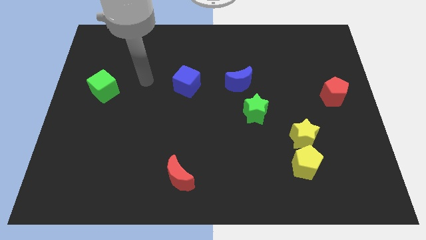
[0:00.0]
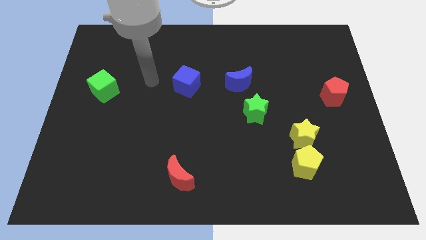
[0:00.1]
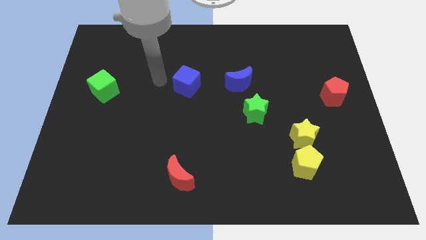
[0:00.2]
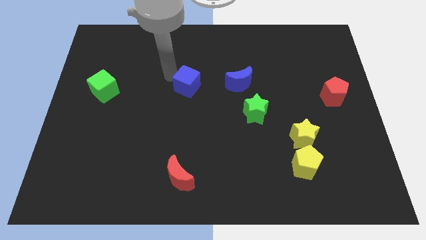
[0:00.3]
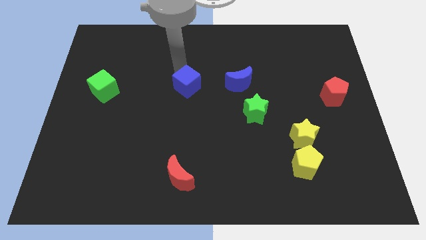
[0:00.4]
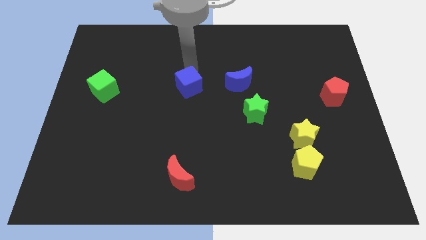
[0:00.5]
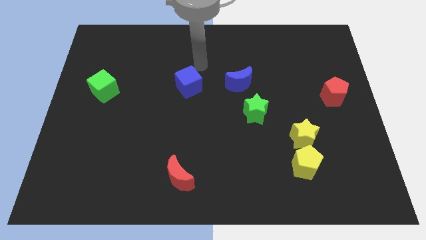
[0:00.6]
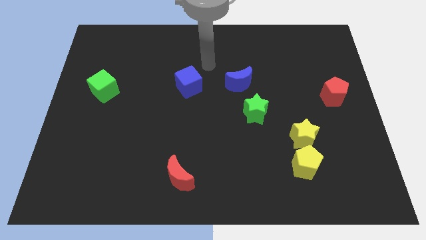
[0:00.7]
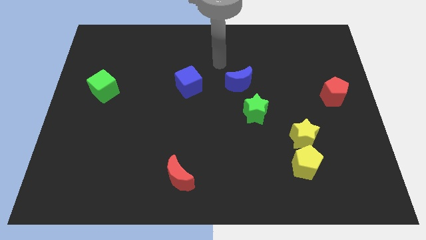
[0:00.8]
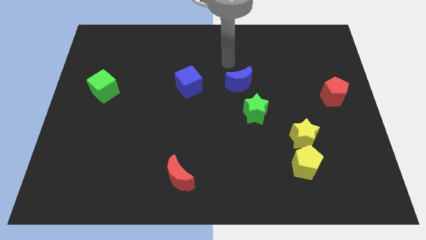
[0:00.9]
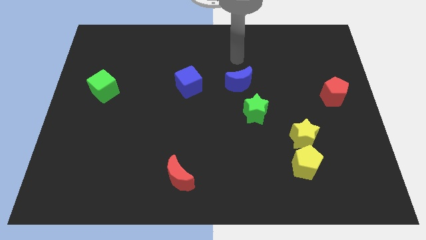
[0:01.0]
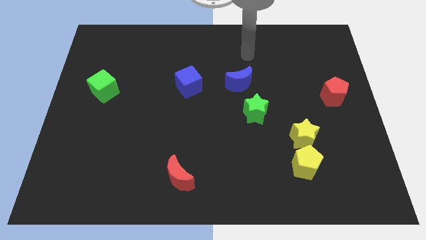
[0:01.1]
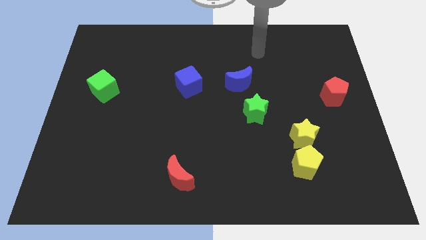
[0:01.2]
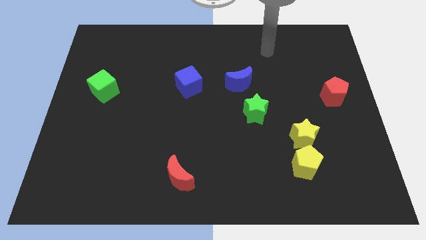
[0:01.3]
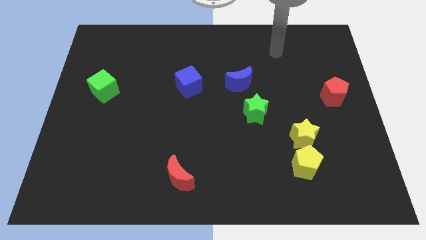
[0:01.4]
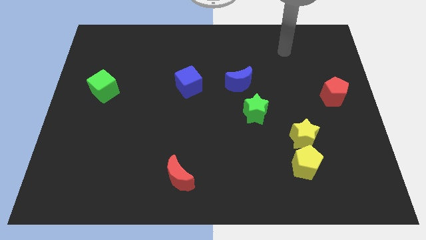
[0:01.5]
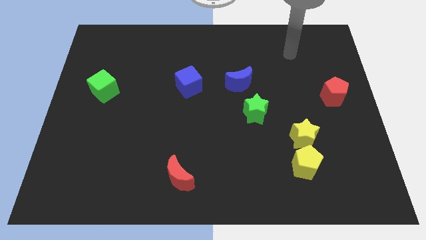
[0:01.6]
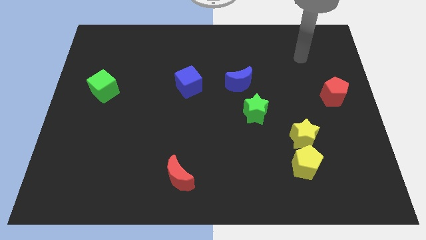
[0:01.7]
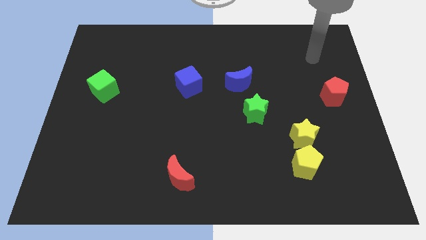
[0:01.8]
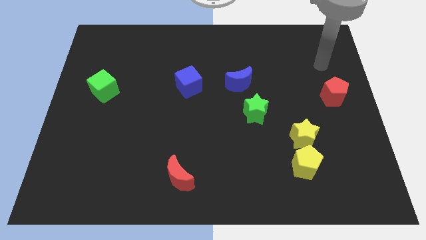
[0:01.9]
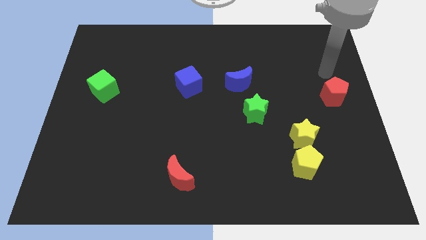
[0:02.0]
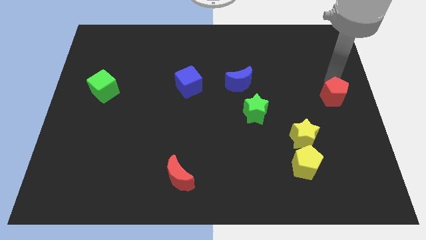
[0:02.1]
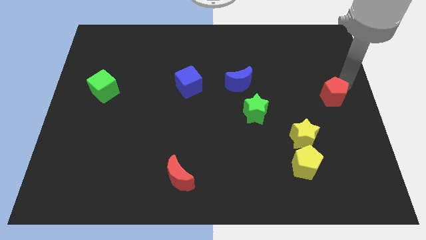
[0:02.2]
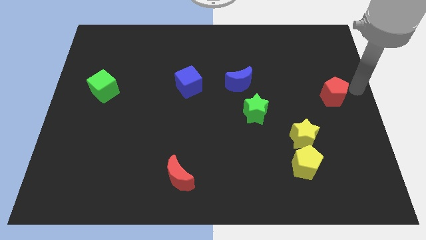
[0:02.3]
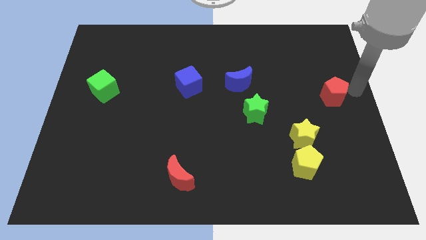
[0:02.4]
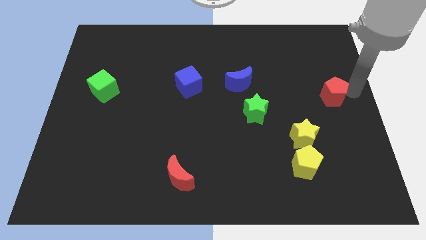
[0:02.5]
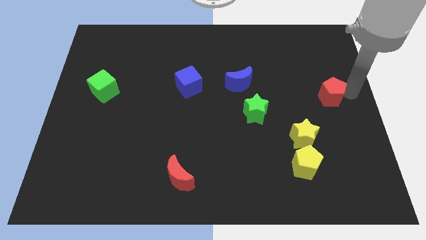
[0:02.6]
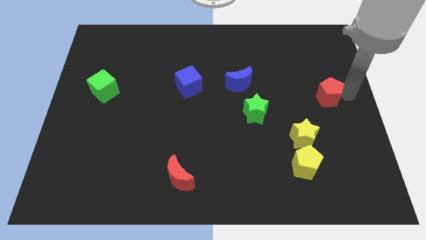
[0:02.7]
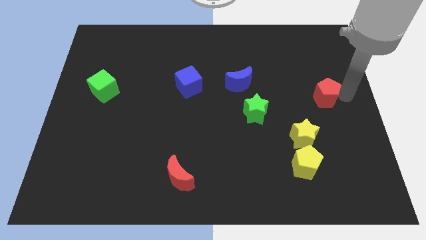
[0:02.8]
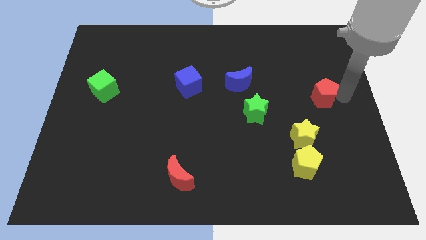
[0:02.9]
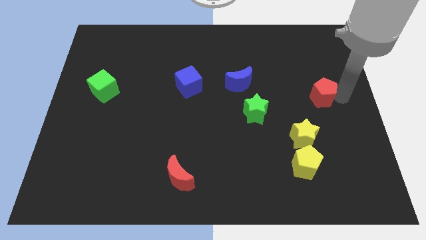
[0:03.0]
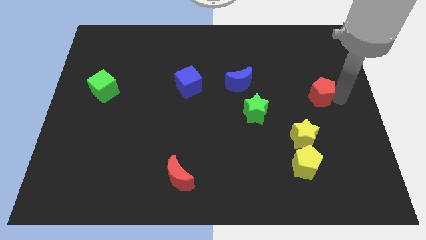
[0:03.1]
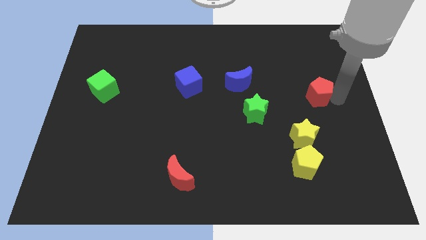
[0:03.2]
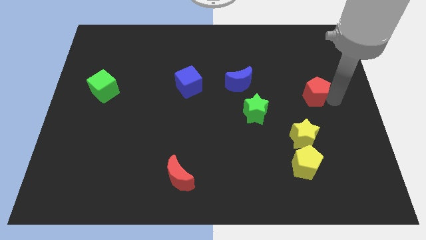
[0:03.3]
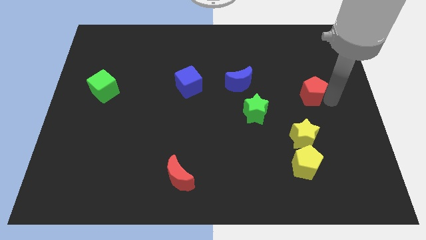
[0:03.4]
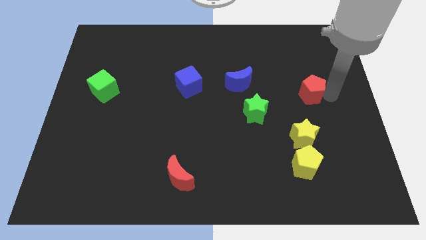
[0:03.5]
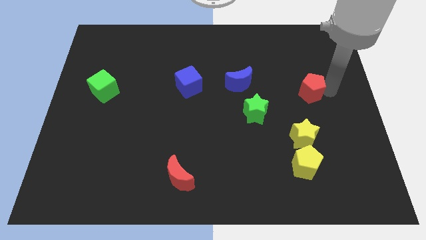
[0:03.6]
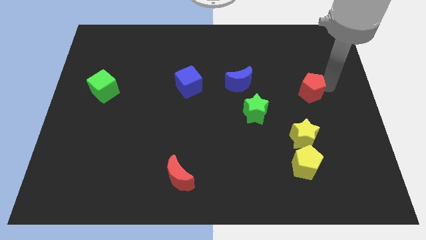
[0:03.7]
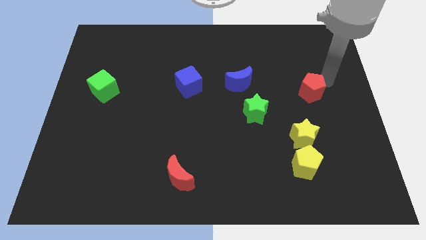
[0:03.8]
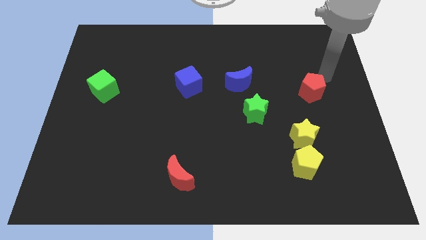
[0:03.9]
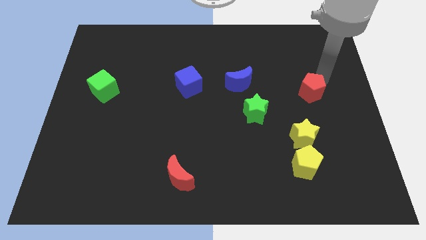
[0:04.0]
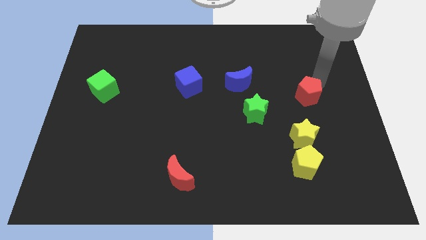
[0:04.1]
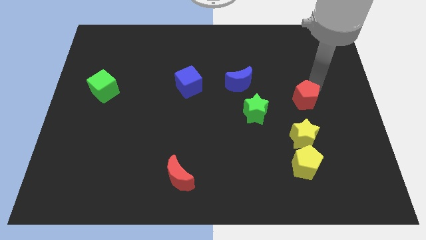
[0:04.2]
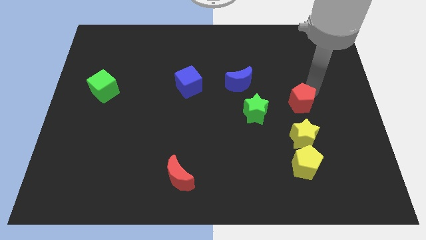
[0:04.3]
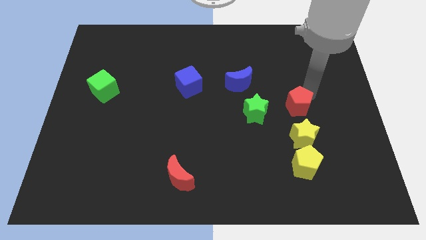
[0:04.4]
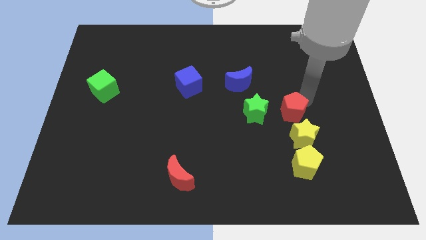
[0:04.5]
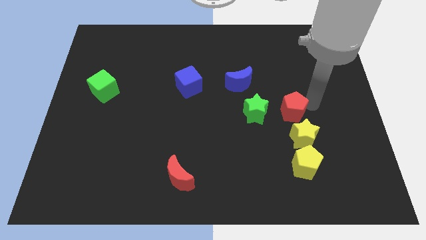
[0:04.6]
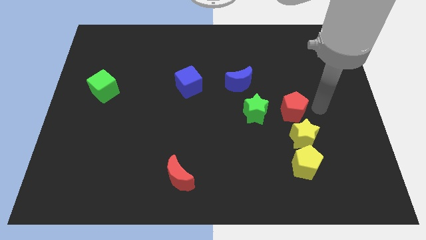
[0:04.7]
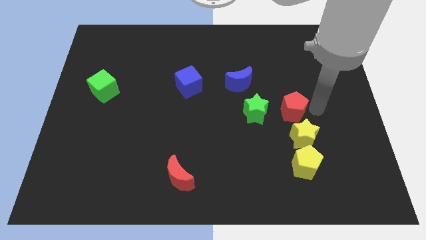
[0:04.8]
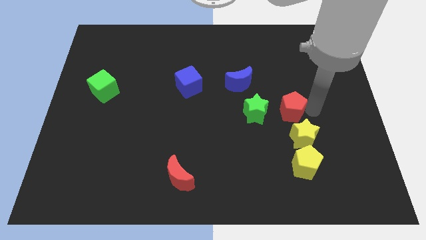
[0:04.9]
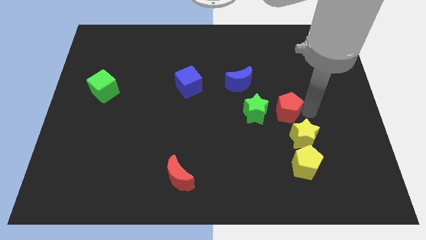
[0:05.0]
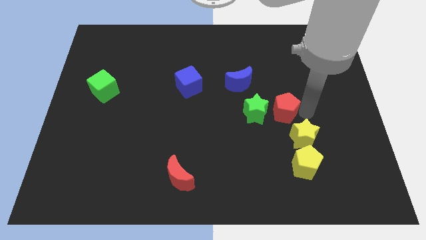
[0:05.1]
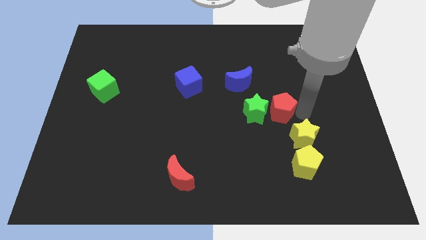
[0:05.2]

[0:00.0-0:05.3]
push the red pentagon next to the green star

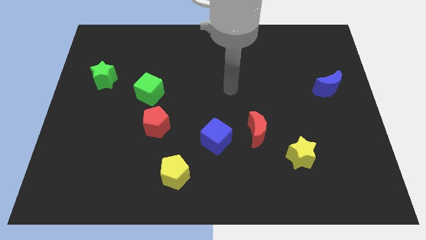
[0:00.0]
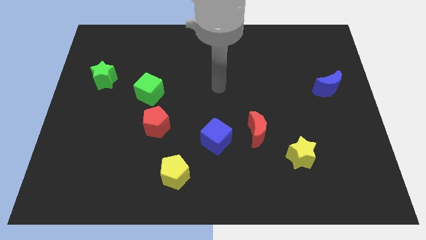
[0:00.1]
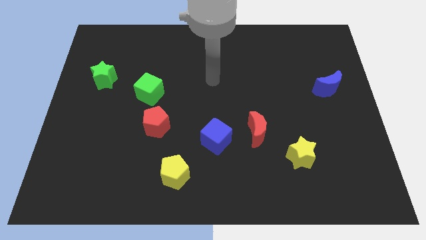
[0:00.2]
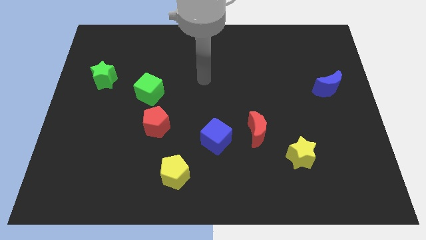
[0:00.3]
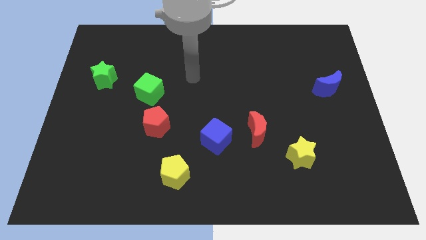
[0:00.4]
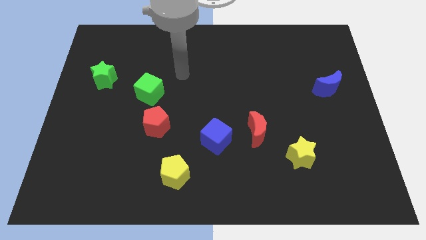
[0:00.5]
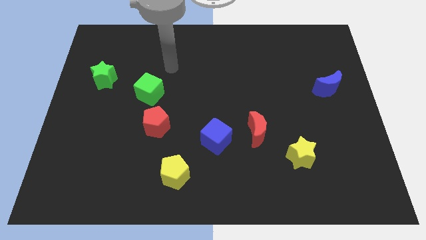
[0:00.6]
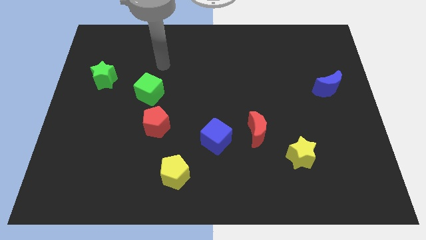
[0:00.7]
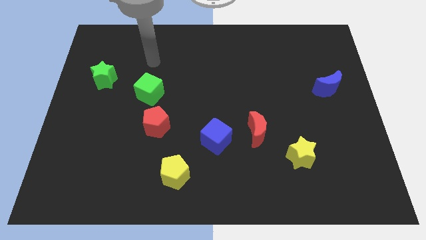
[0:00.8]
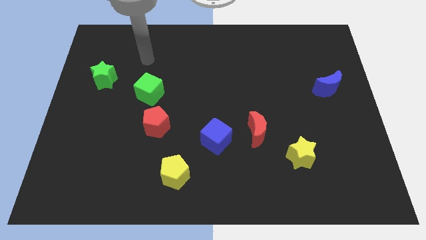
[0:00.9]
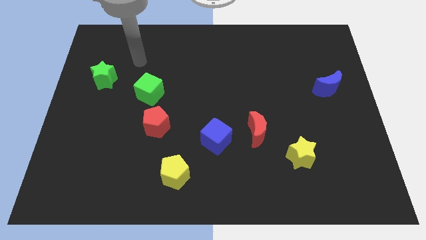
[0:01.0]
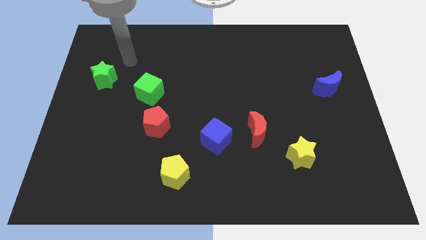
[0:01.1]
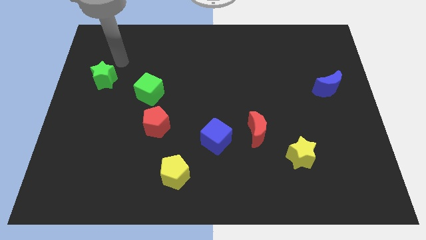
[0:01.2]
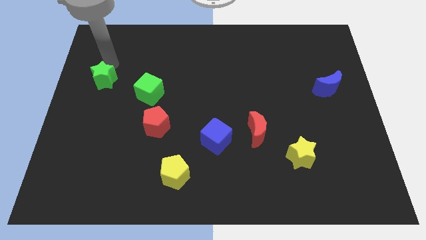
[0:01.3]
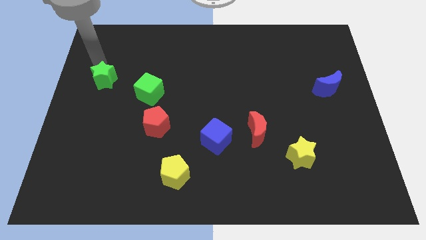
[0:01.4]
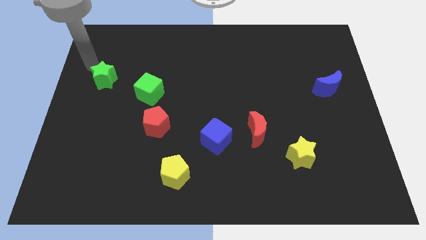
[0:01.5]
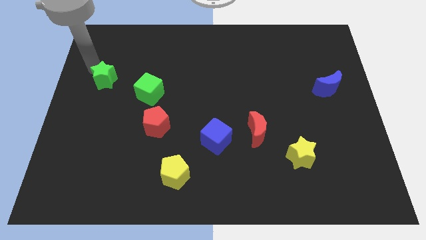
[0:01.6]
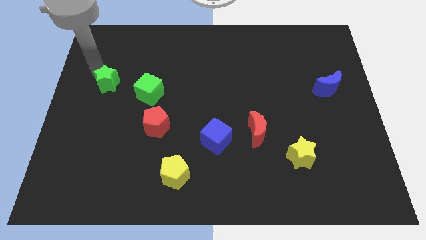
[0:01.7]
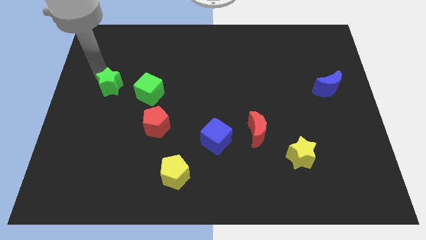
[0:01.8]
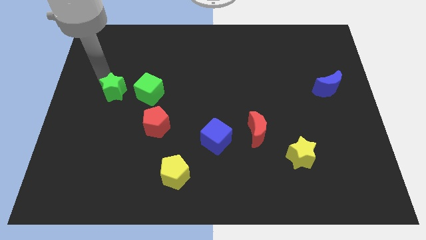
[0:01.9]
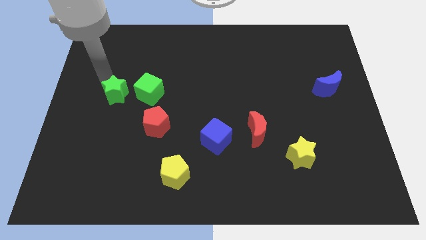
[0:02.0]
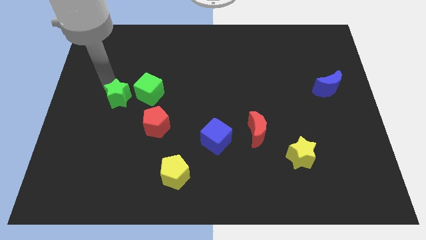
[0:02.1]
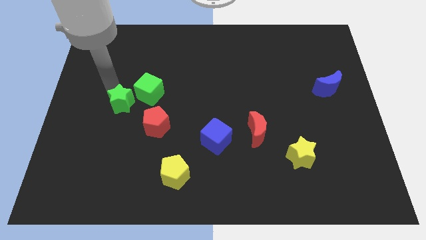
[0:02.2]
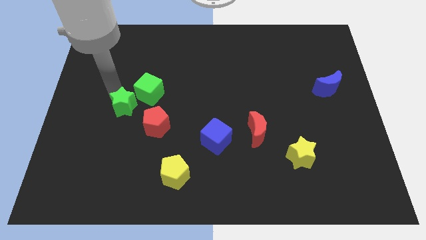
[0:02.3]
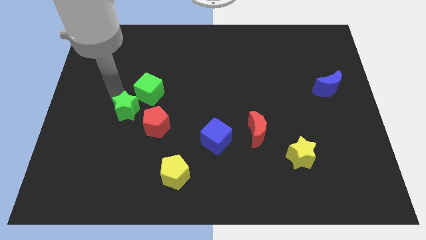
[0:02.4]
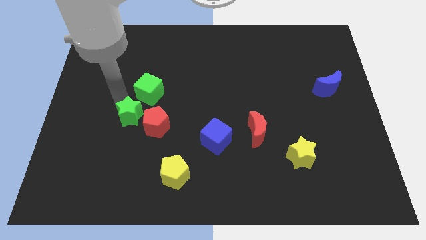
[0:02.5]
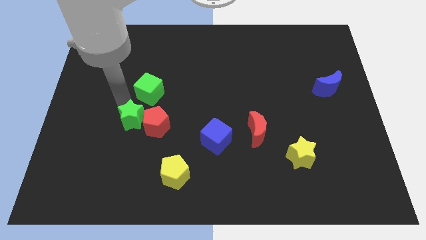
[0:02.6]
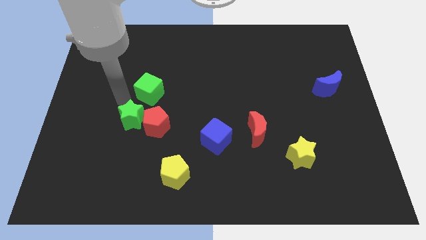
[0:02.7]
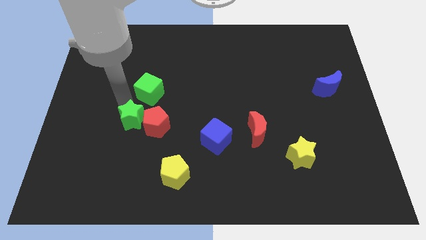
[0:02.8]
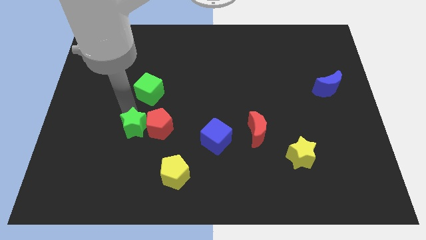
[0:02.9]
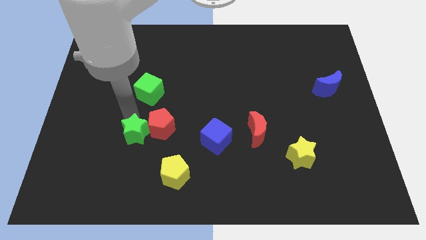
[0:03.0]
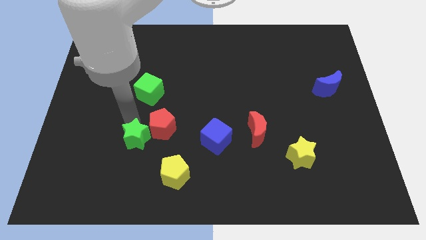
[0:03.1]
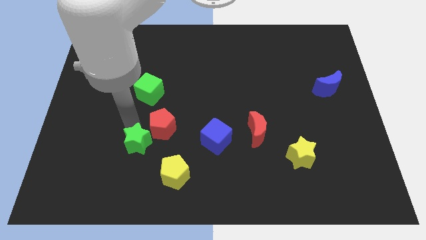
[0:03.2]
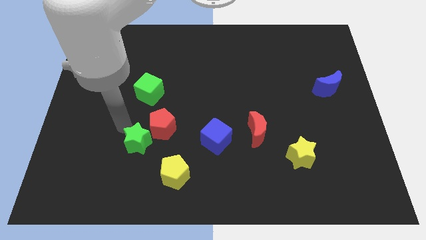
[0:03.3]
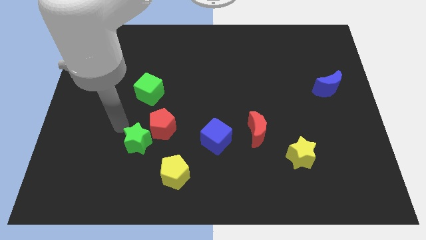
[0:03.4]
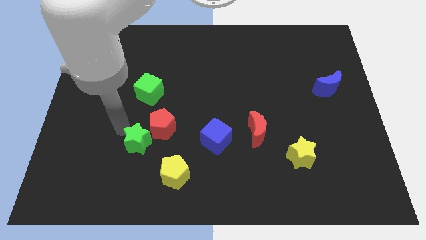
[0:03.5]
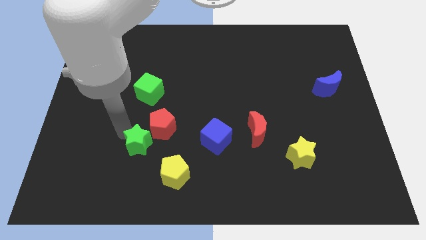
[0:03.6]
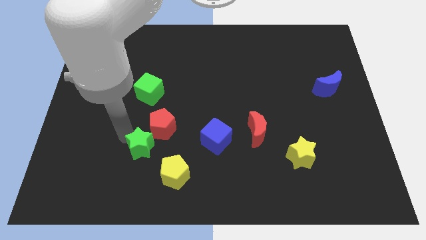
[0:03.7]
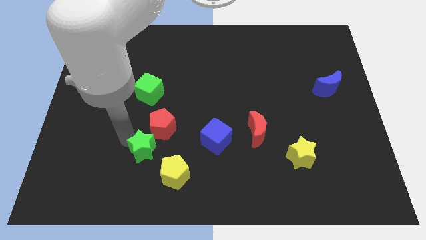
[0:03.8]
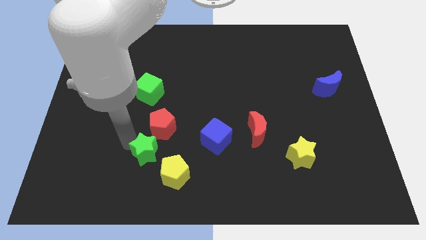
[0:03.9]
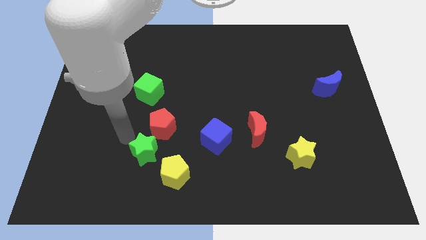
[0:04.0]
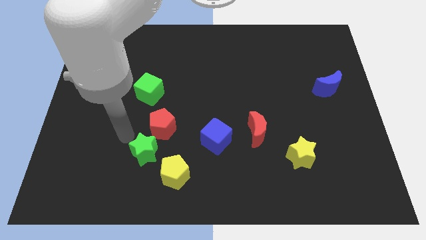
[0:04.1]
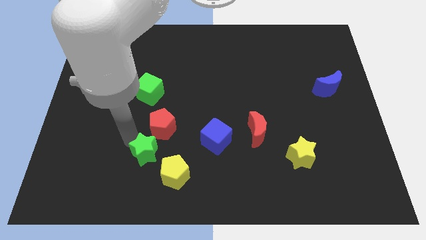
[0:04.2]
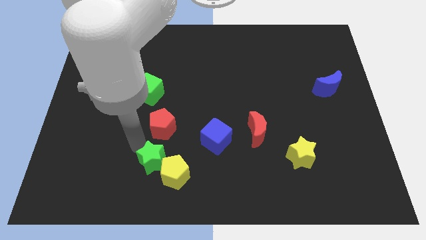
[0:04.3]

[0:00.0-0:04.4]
slide the green star next to the yellow pentagon
